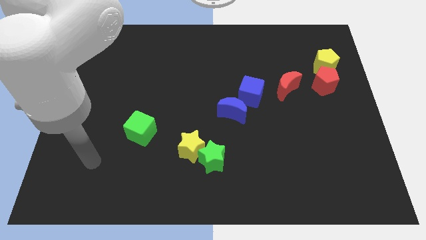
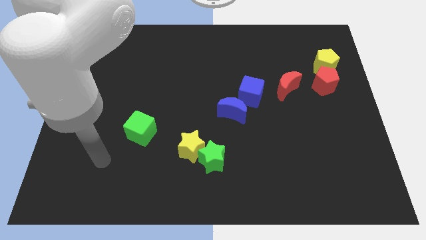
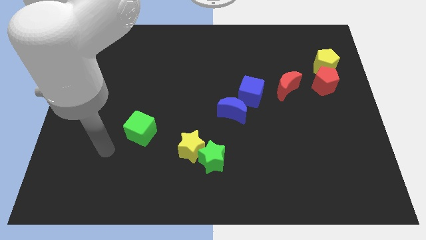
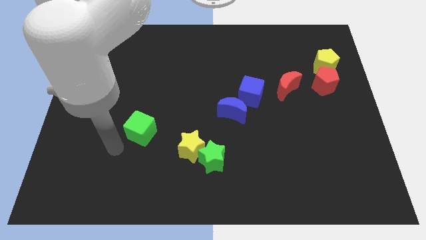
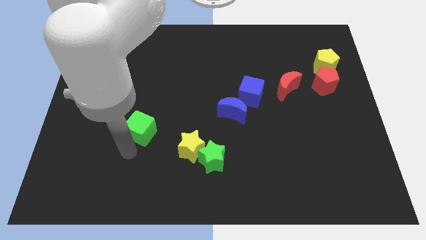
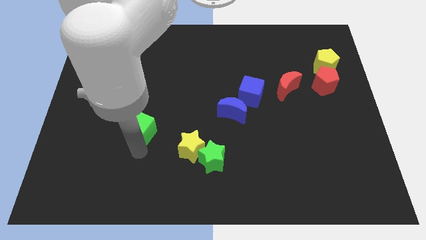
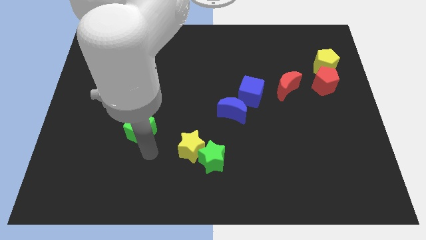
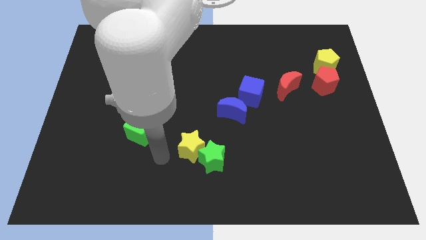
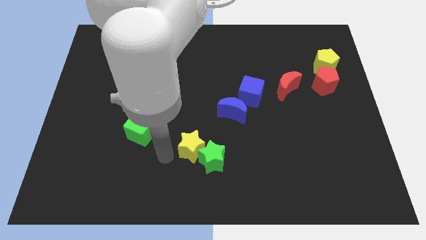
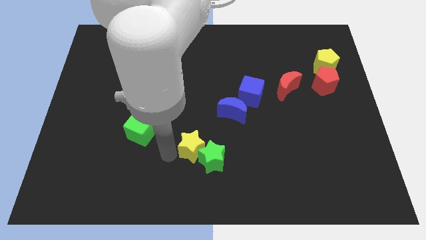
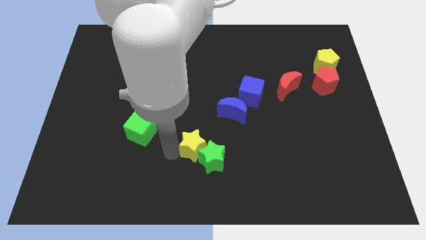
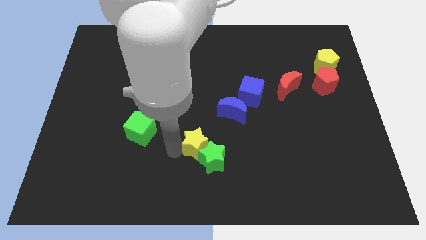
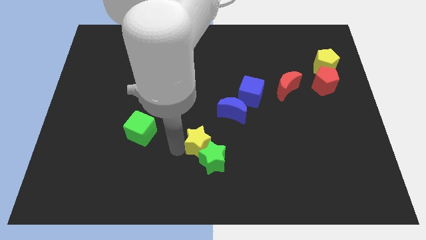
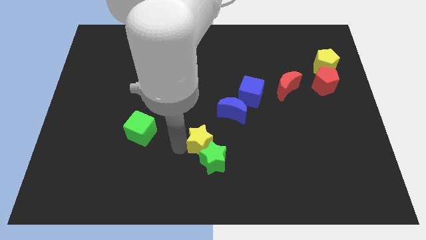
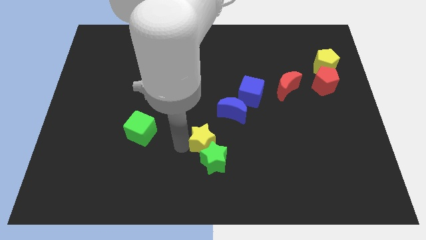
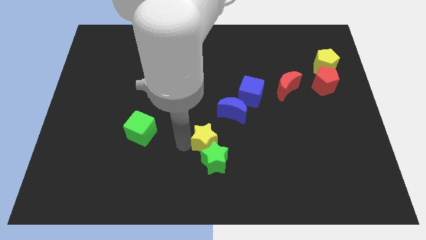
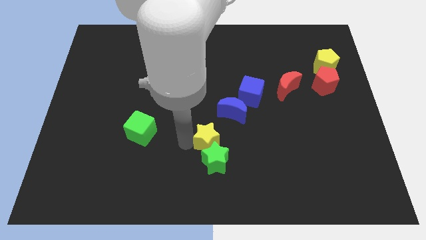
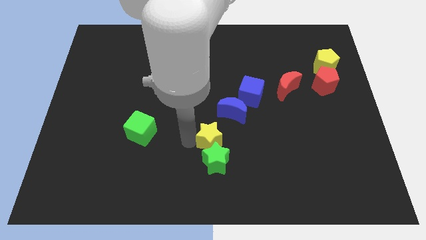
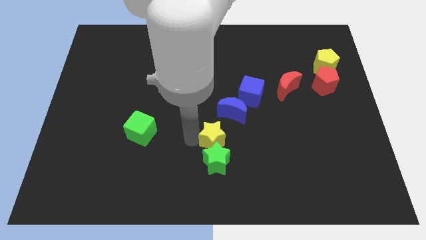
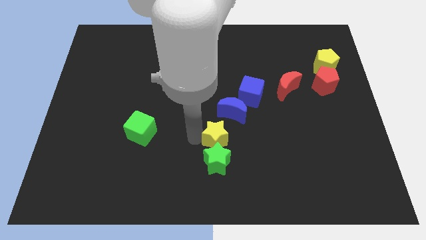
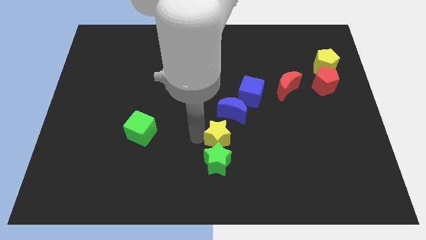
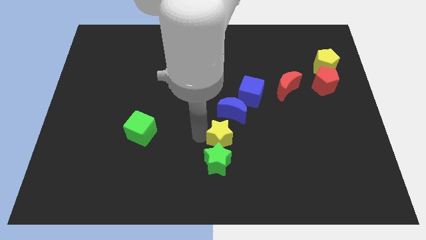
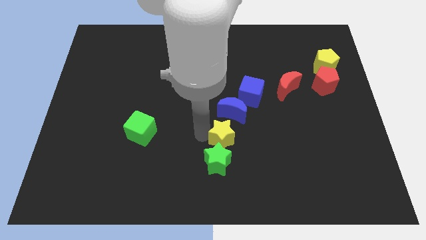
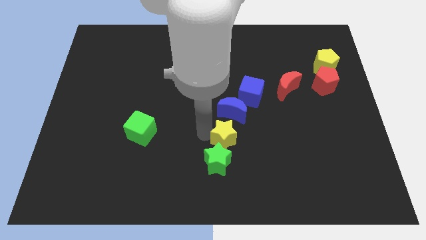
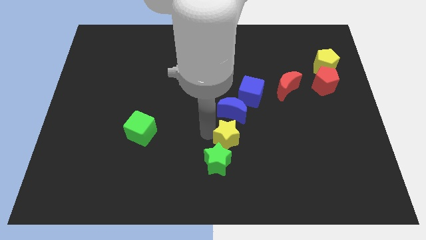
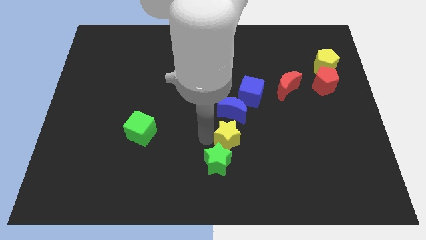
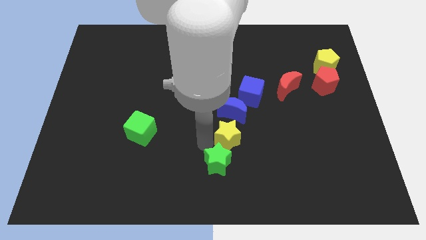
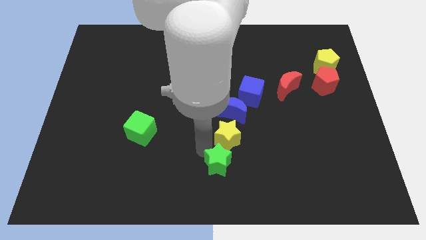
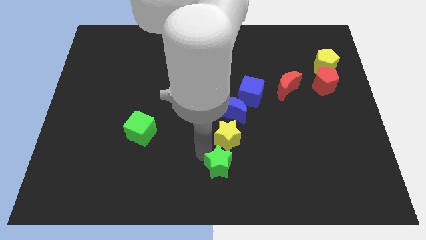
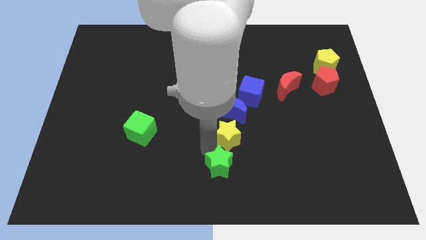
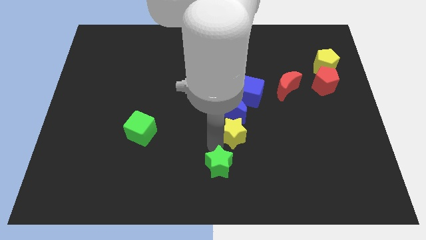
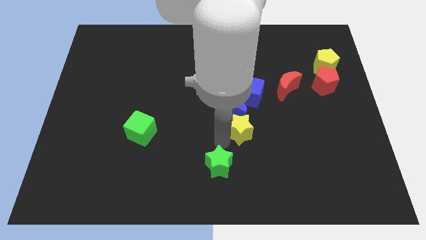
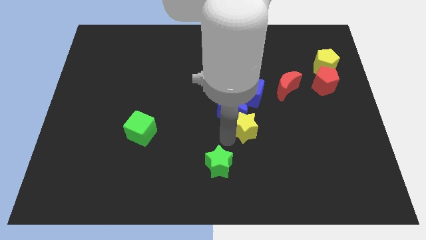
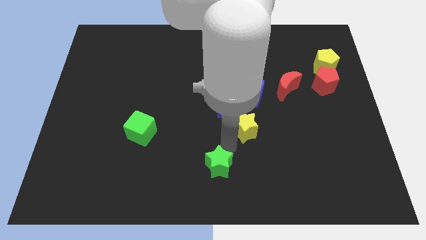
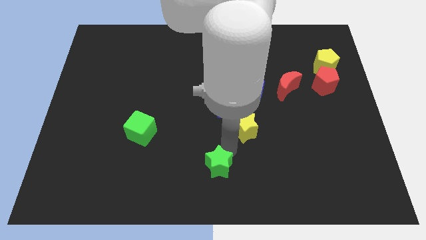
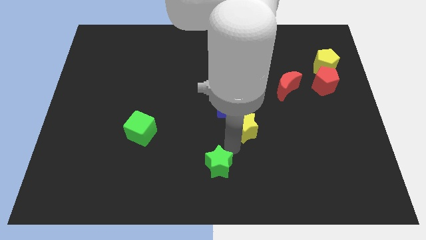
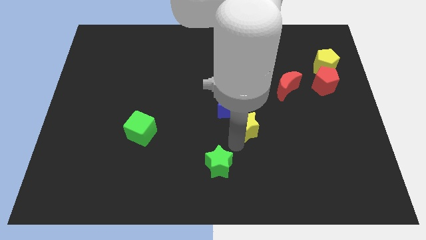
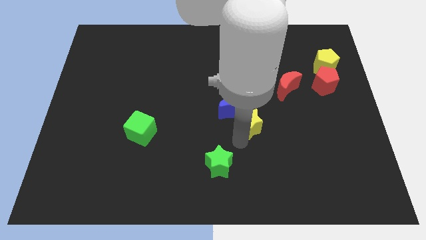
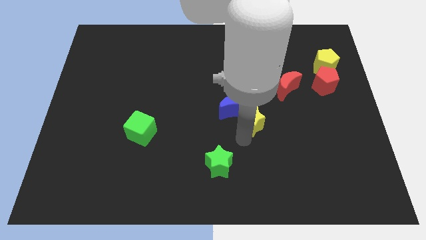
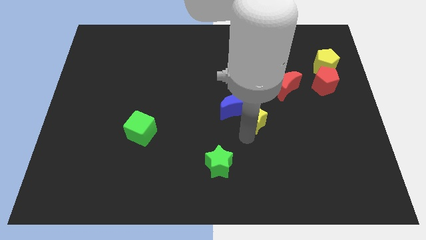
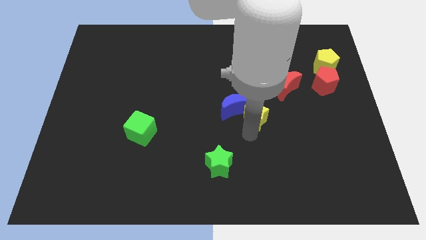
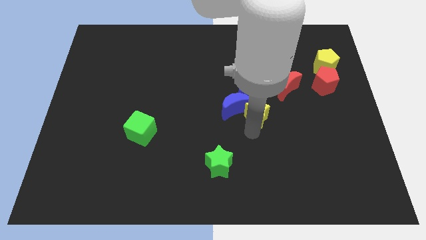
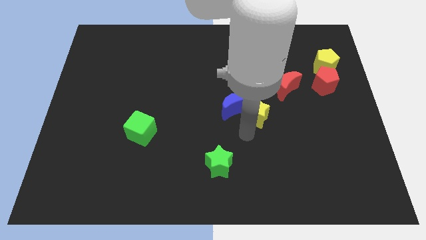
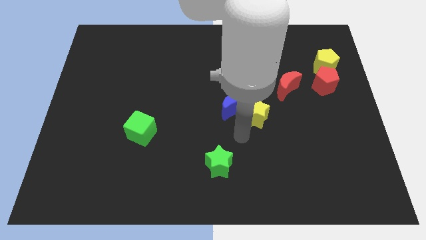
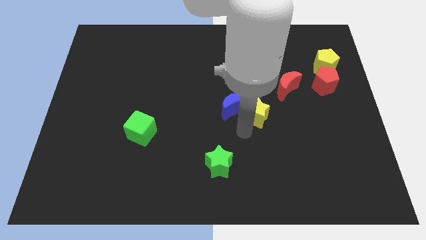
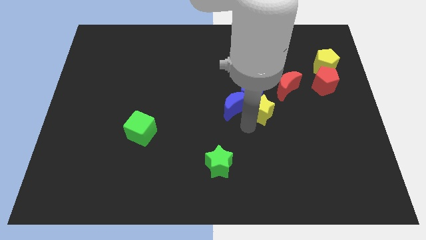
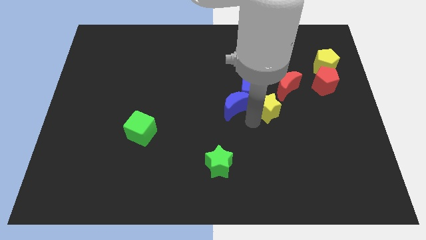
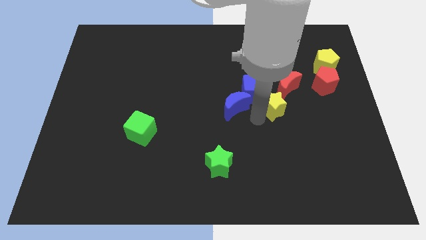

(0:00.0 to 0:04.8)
push the yellow star up and right

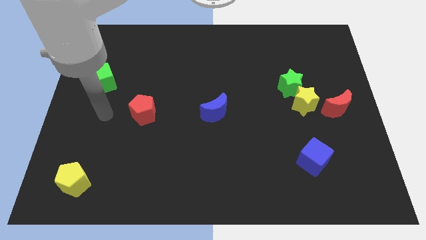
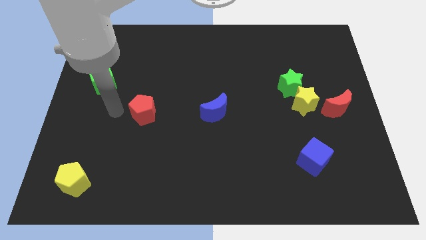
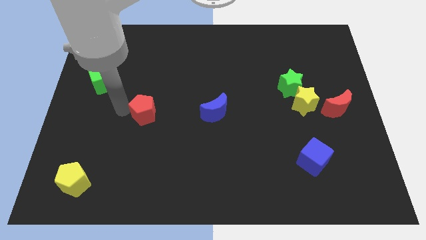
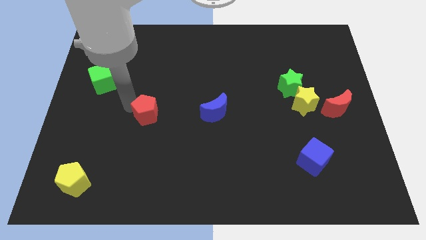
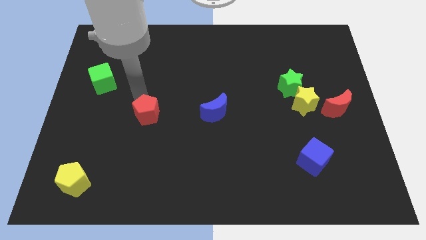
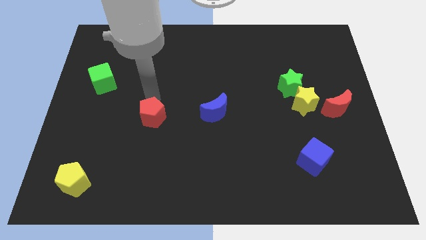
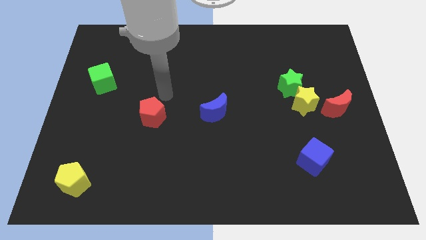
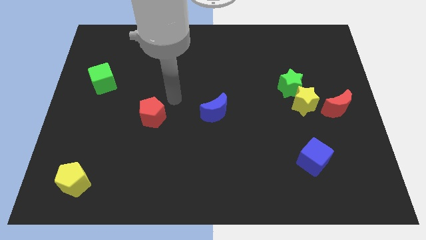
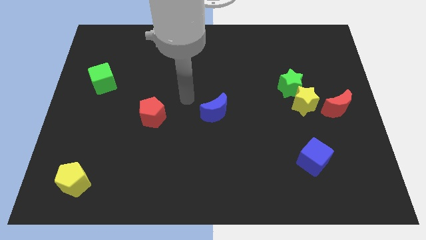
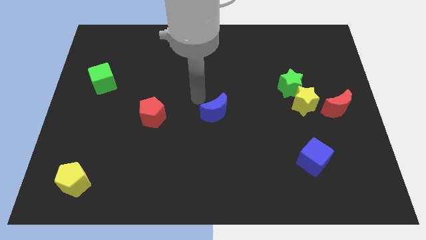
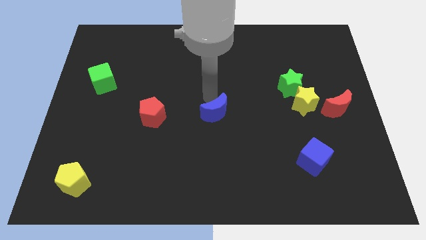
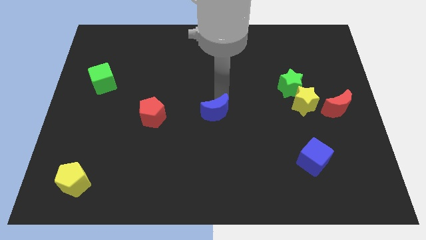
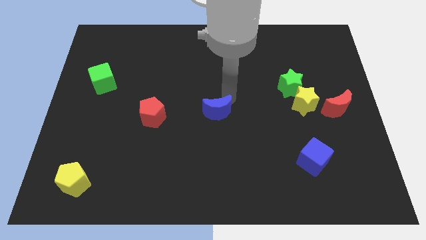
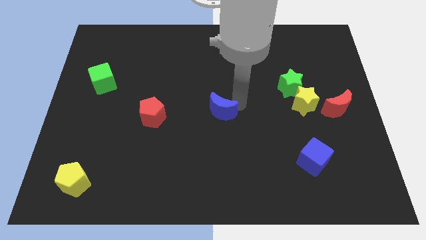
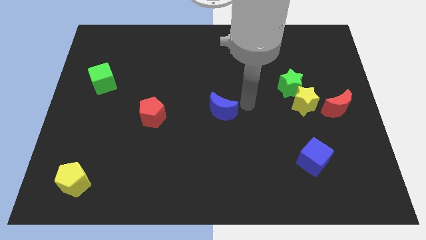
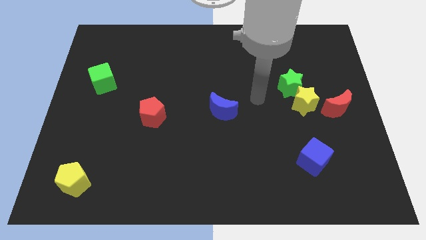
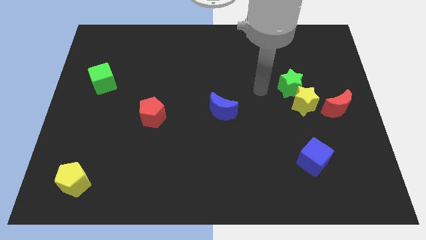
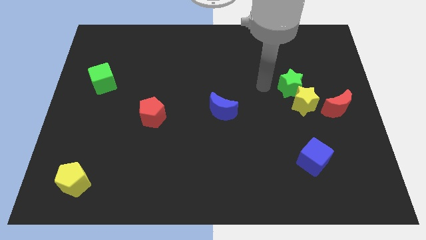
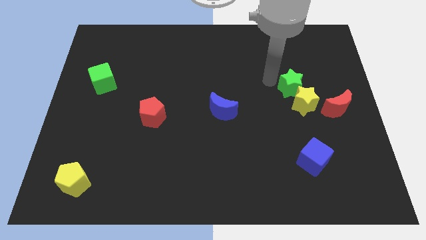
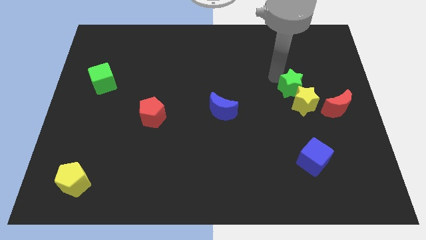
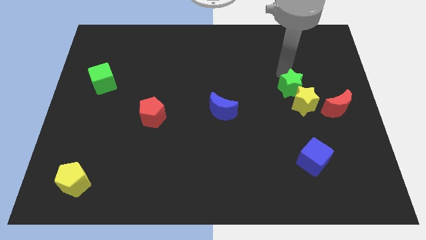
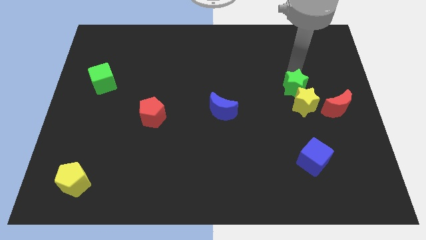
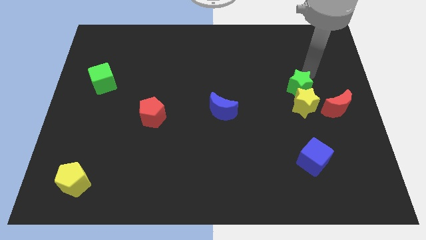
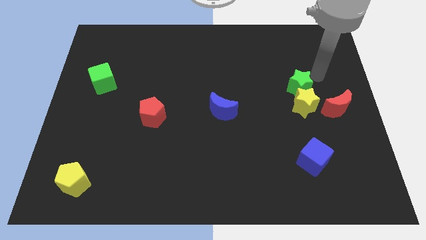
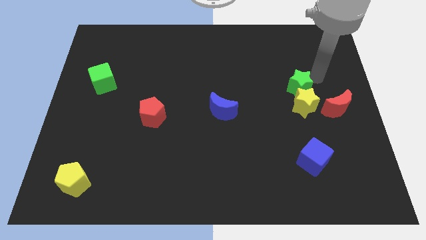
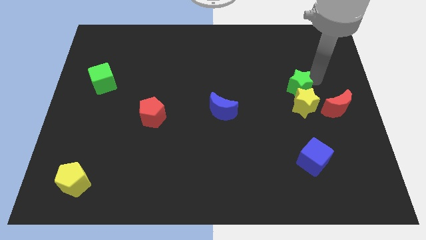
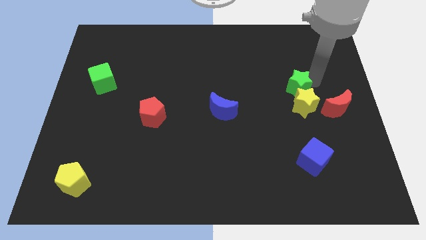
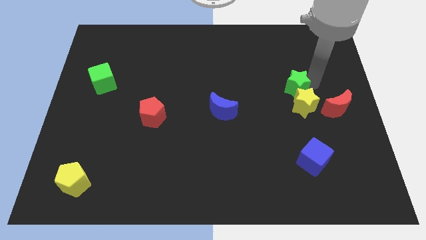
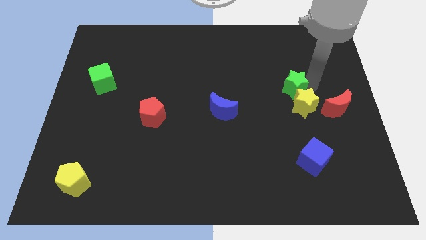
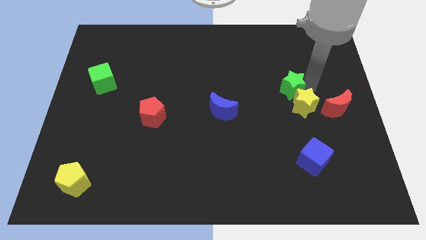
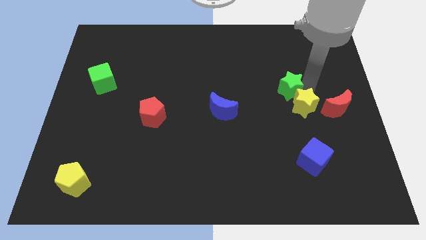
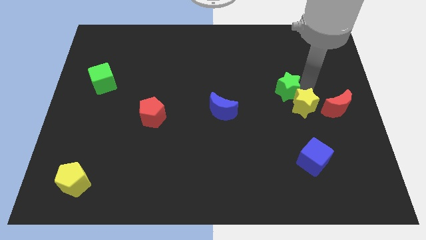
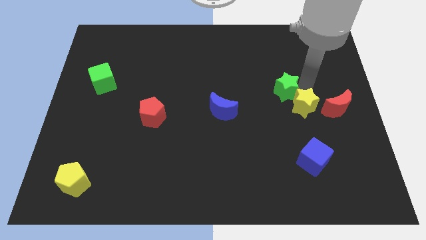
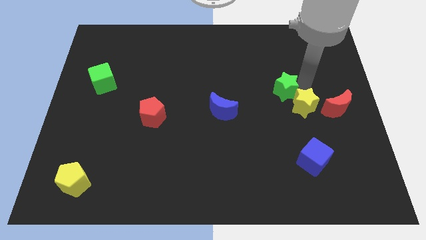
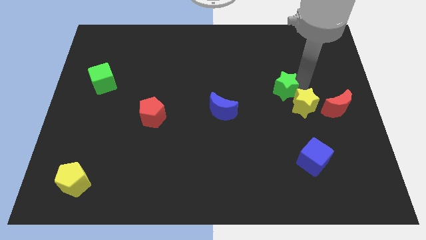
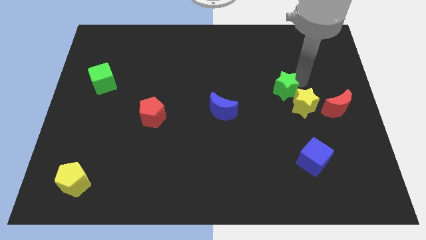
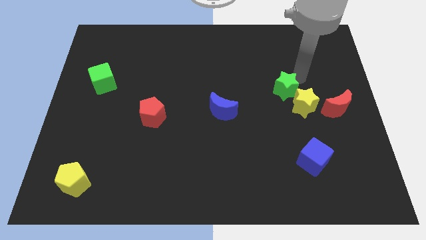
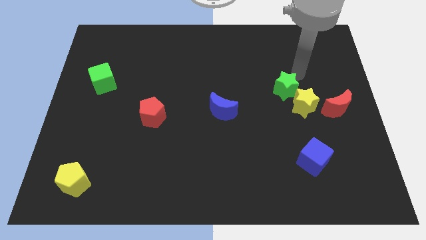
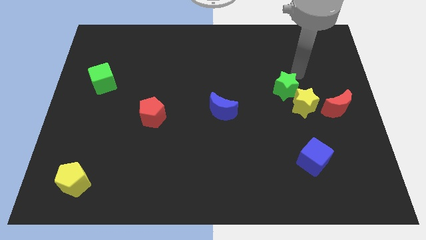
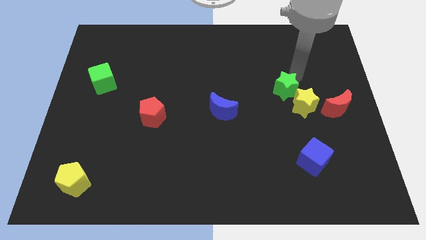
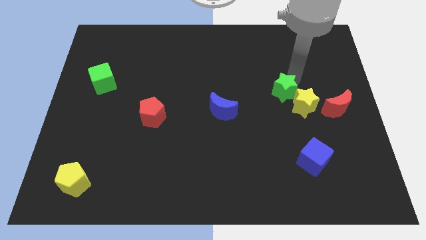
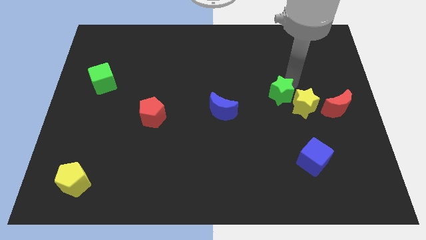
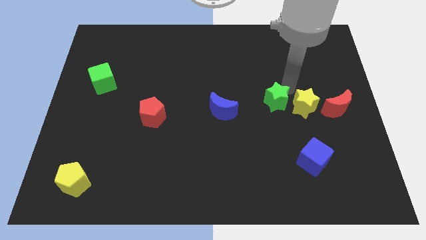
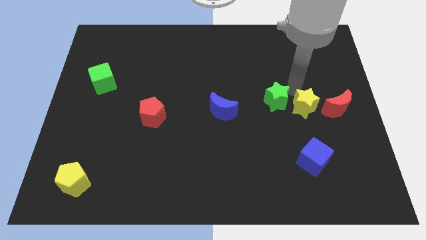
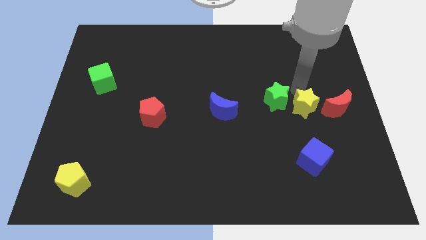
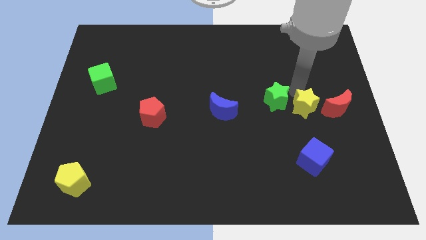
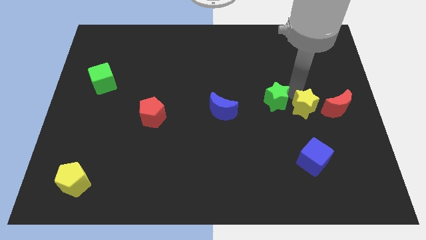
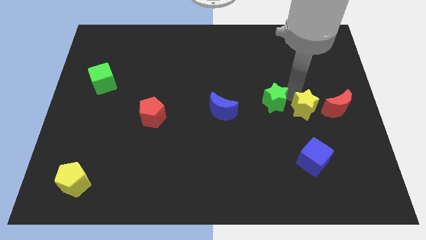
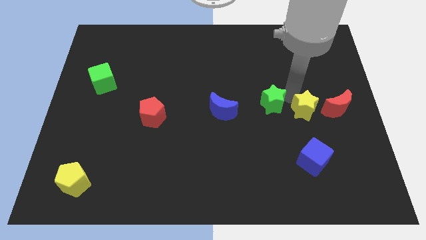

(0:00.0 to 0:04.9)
slightly slide the green star down and left diagonally
